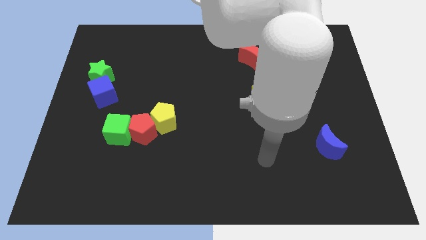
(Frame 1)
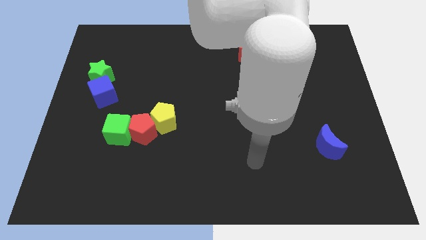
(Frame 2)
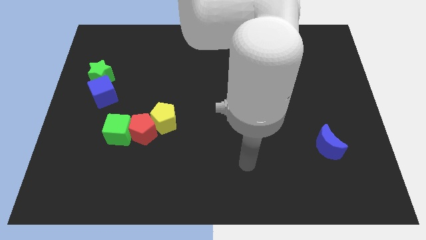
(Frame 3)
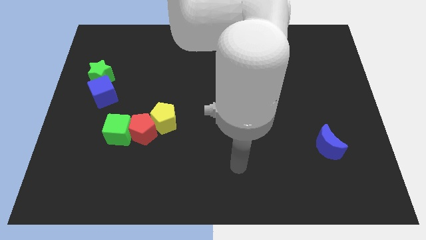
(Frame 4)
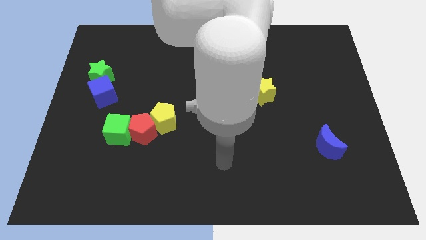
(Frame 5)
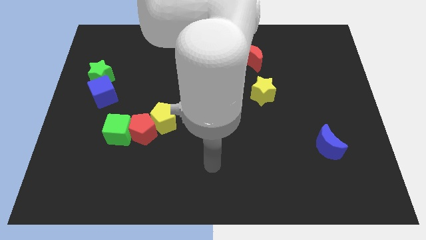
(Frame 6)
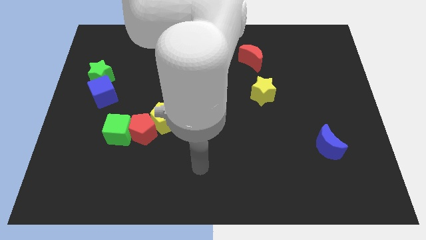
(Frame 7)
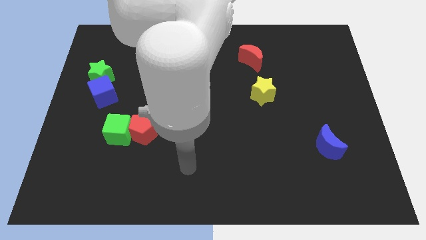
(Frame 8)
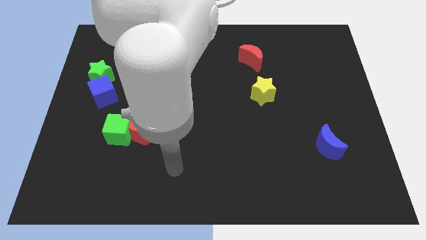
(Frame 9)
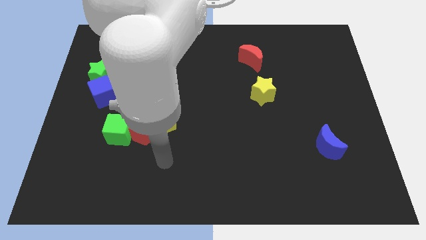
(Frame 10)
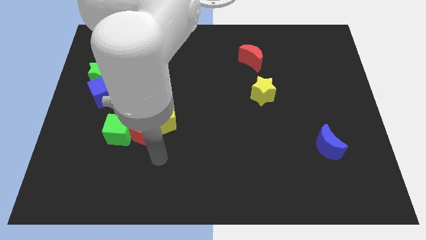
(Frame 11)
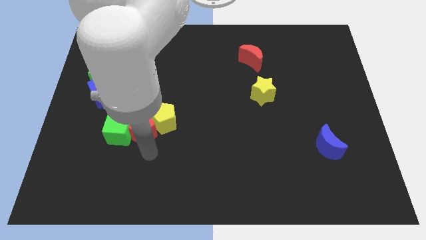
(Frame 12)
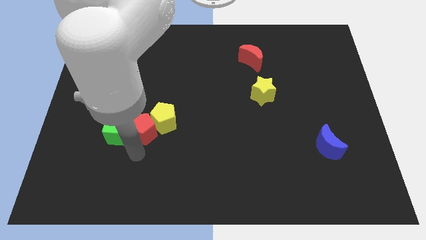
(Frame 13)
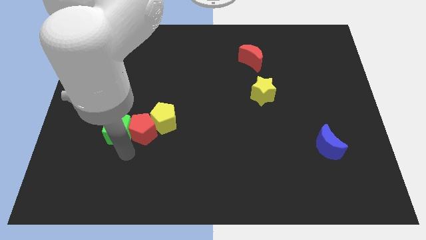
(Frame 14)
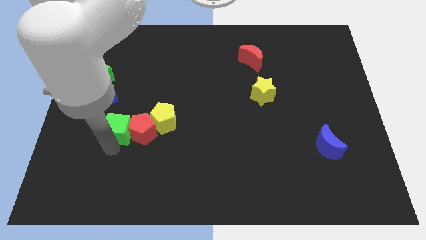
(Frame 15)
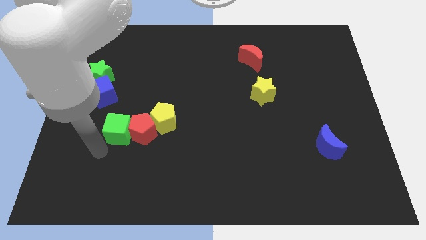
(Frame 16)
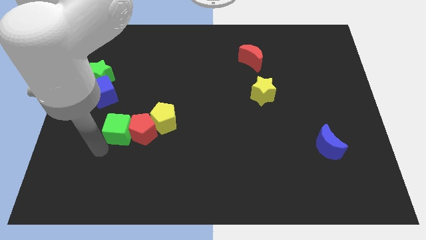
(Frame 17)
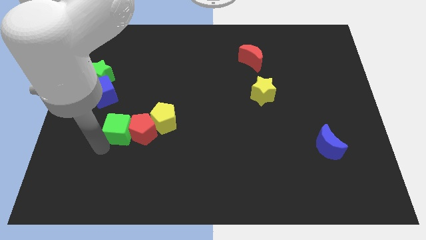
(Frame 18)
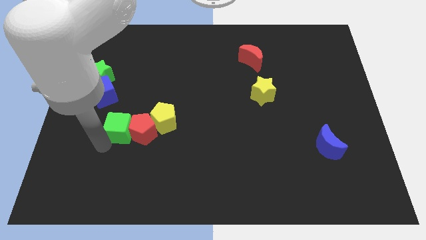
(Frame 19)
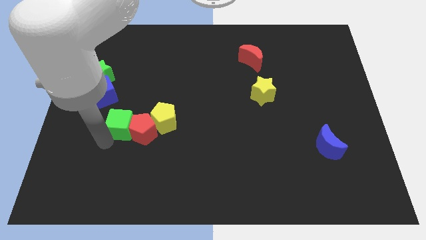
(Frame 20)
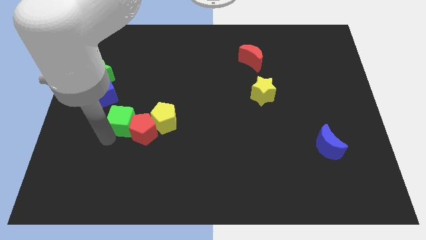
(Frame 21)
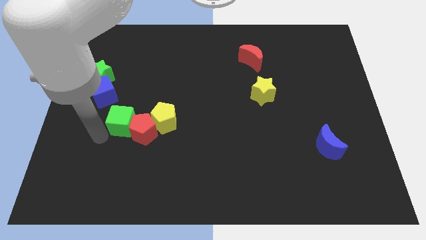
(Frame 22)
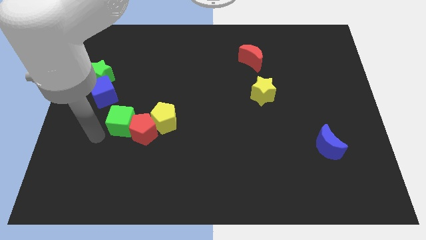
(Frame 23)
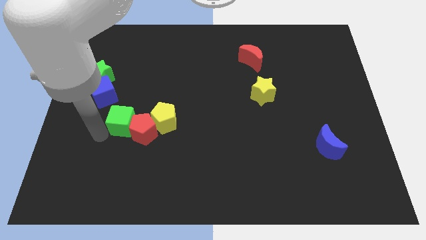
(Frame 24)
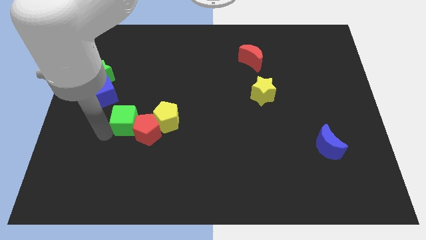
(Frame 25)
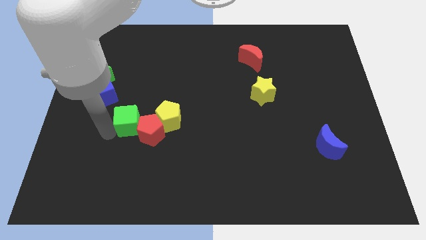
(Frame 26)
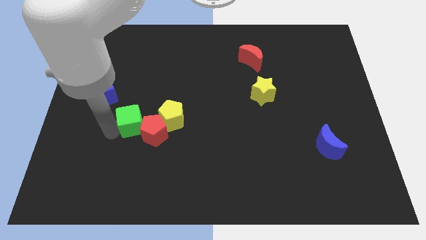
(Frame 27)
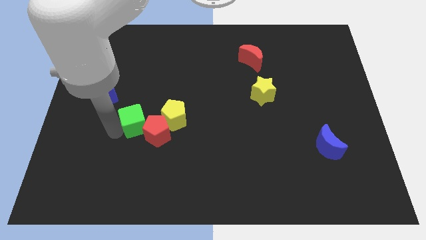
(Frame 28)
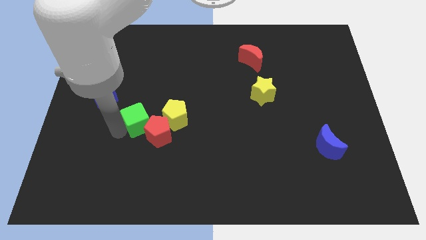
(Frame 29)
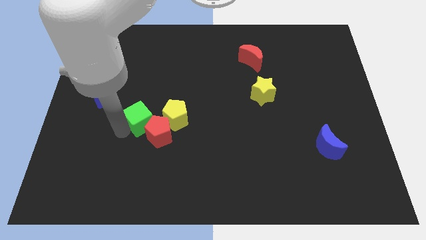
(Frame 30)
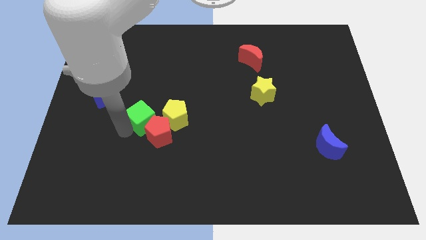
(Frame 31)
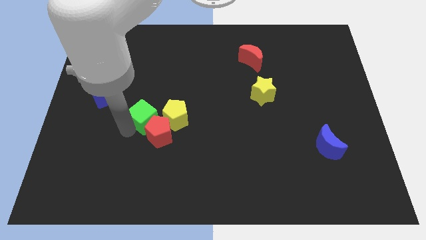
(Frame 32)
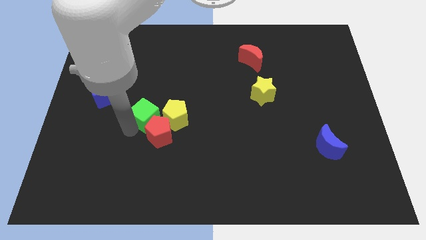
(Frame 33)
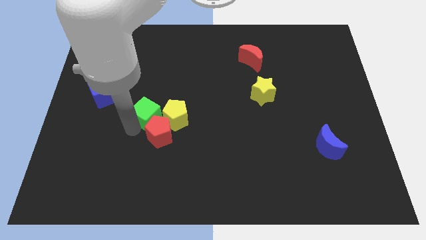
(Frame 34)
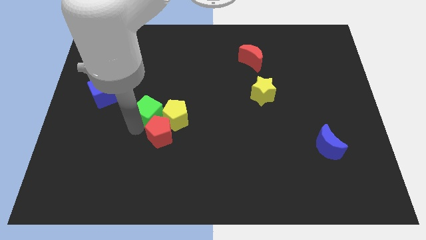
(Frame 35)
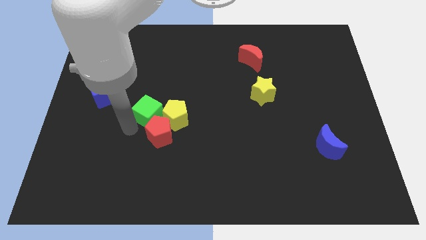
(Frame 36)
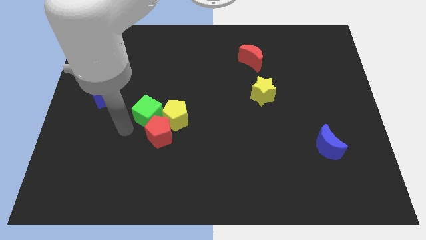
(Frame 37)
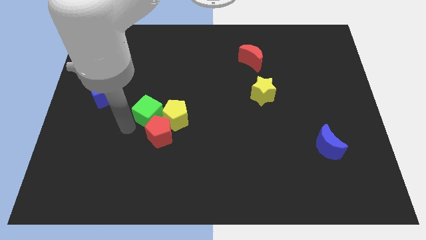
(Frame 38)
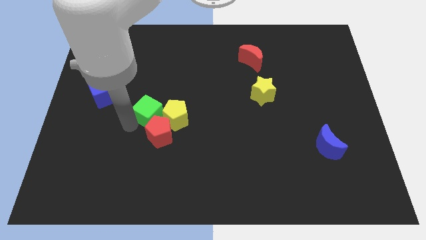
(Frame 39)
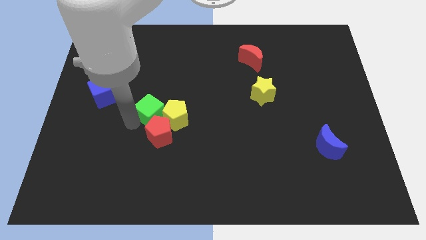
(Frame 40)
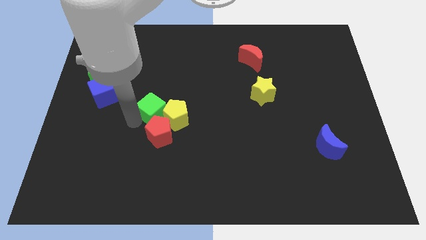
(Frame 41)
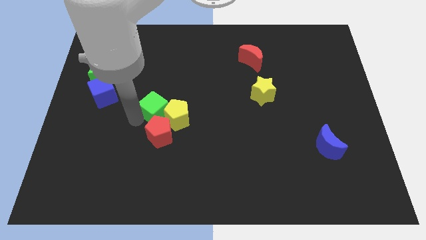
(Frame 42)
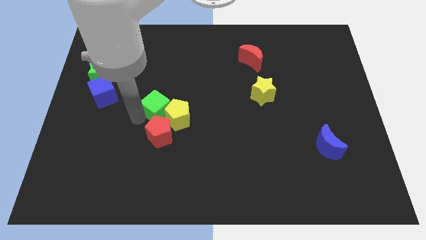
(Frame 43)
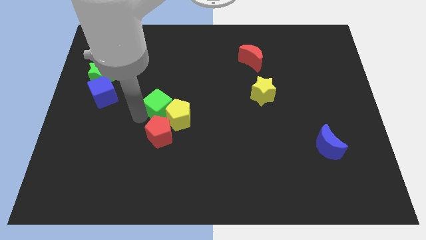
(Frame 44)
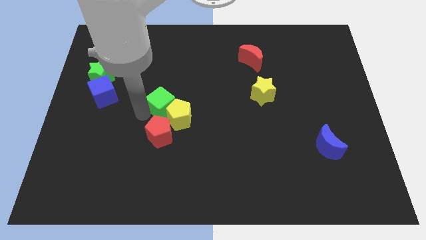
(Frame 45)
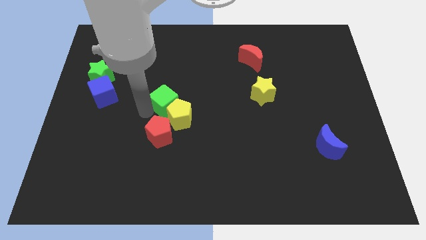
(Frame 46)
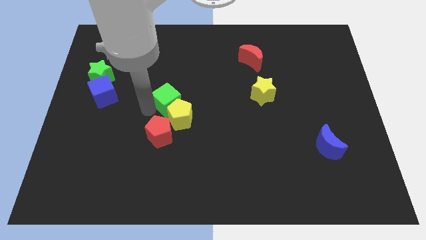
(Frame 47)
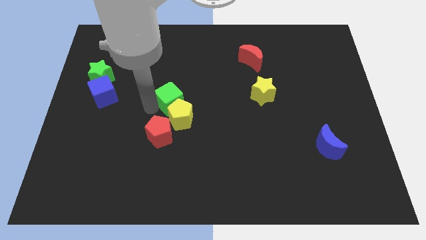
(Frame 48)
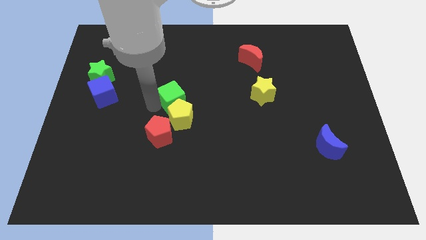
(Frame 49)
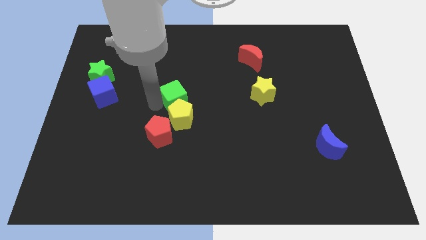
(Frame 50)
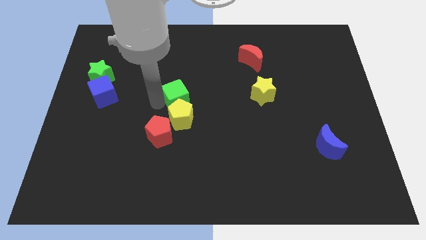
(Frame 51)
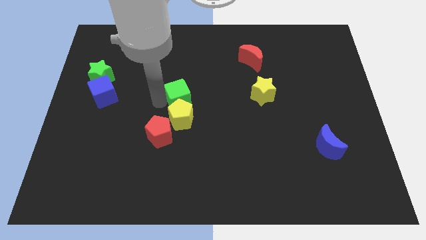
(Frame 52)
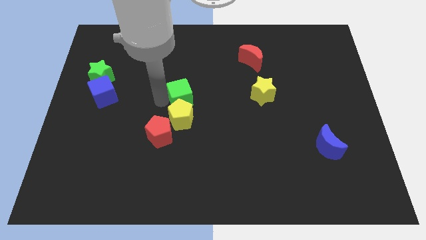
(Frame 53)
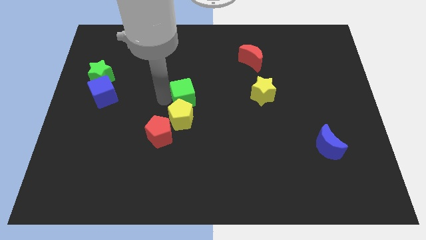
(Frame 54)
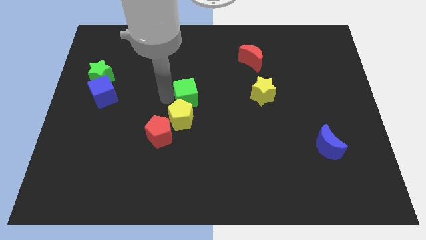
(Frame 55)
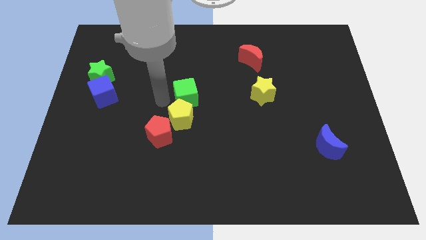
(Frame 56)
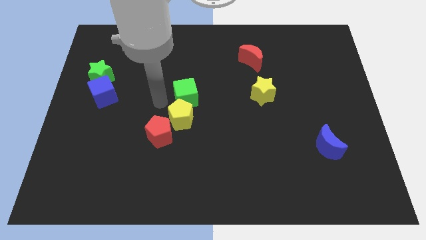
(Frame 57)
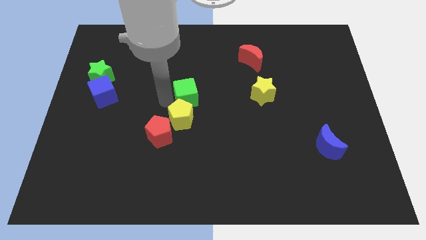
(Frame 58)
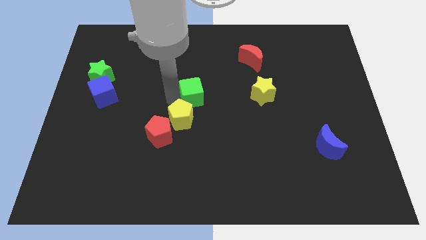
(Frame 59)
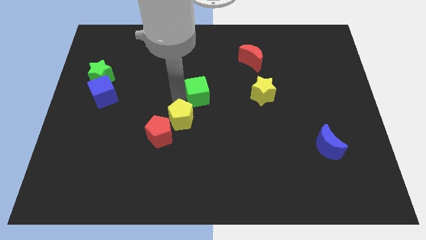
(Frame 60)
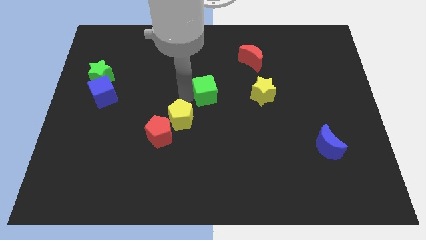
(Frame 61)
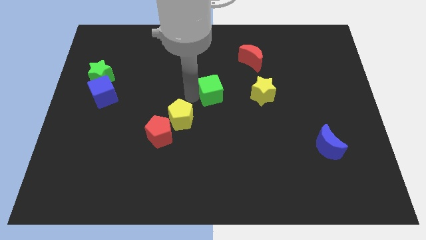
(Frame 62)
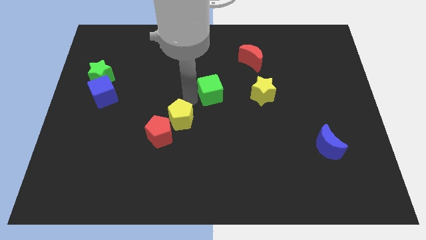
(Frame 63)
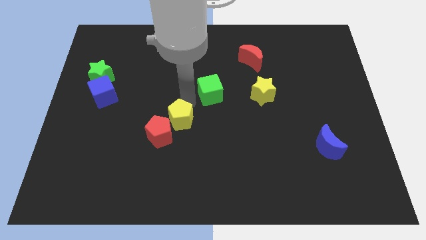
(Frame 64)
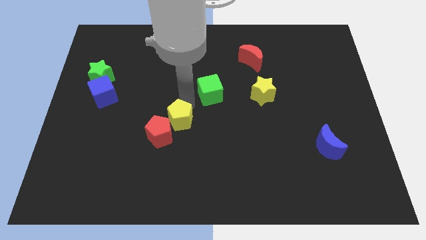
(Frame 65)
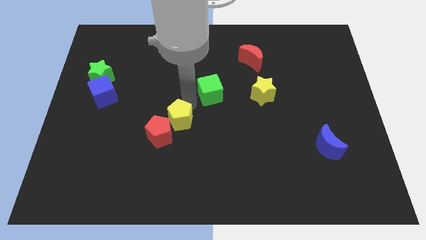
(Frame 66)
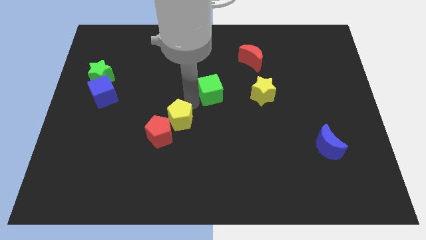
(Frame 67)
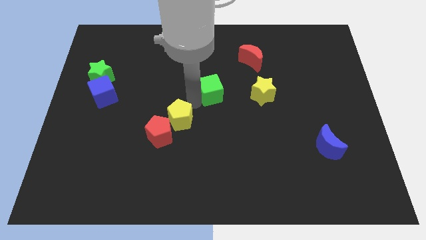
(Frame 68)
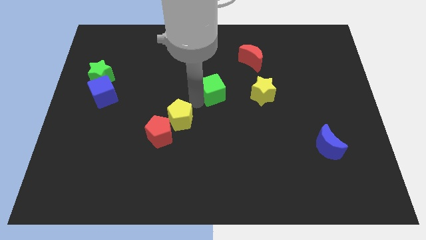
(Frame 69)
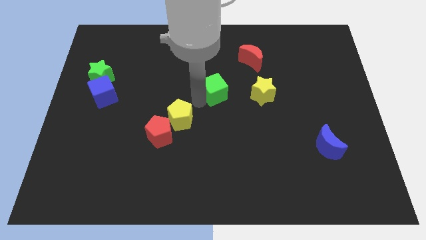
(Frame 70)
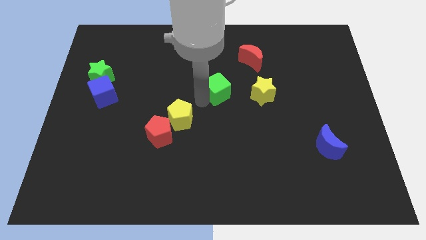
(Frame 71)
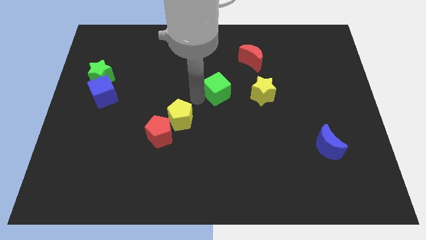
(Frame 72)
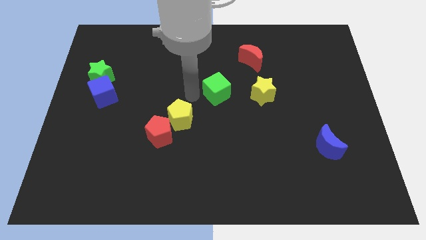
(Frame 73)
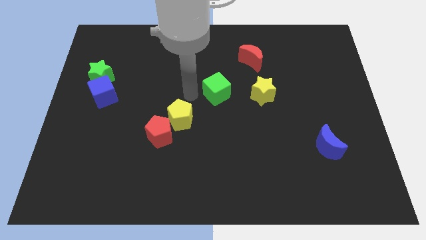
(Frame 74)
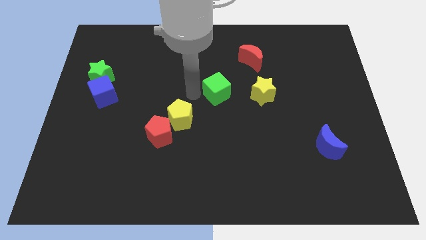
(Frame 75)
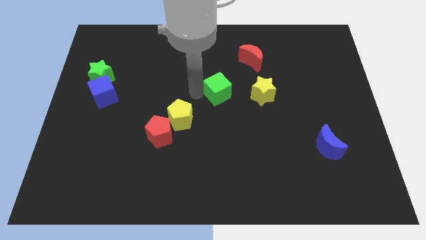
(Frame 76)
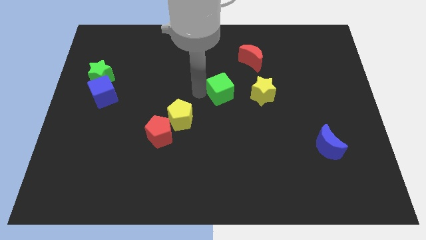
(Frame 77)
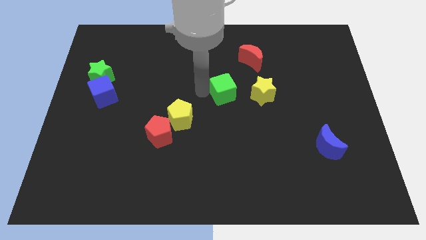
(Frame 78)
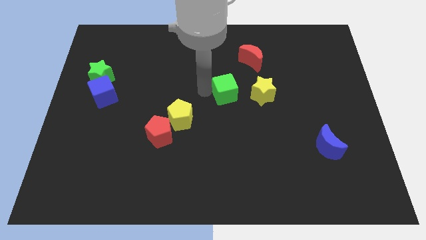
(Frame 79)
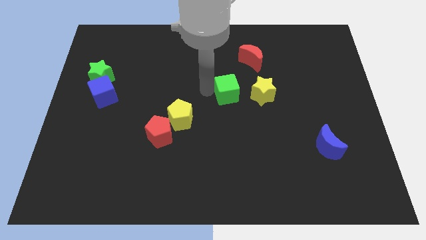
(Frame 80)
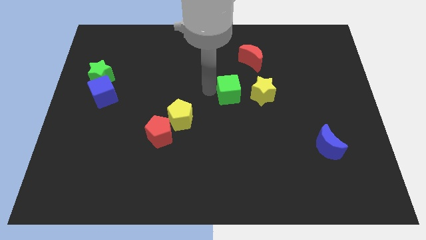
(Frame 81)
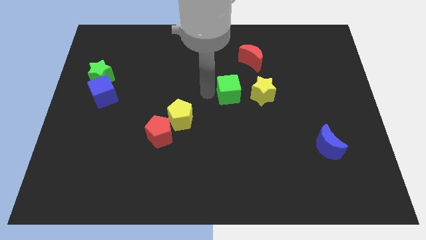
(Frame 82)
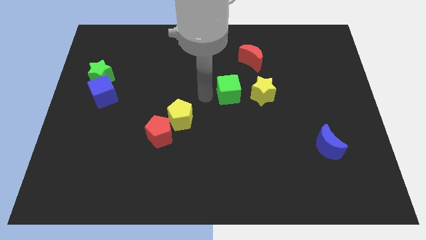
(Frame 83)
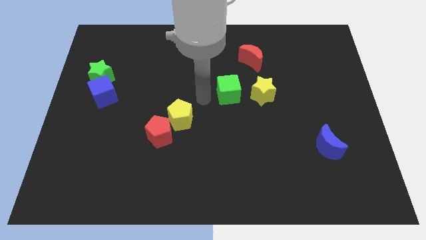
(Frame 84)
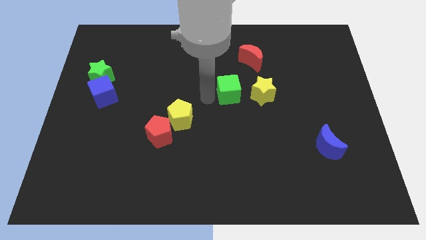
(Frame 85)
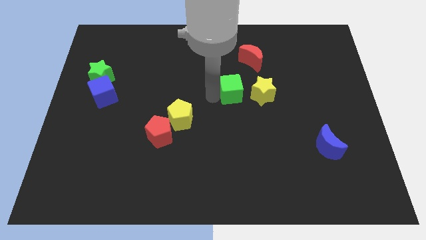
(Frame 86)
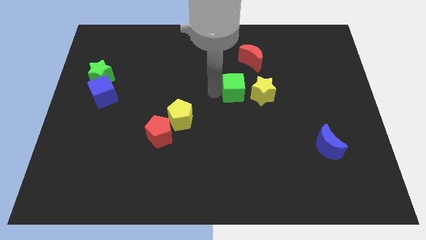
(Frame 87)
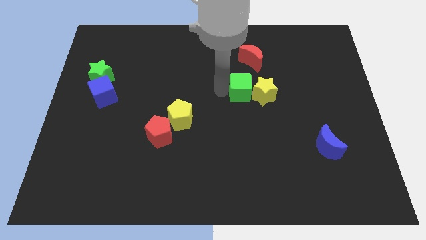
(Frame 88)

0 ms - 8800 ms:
slide the green cube to the yellow star
